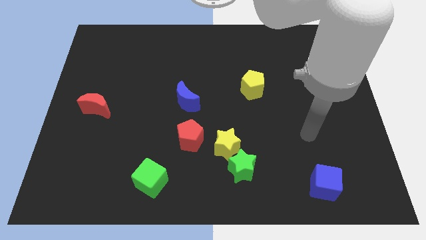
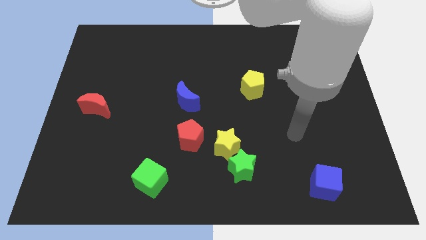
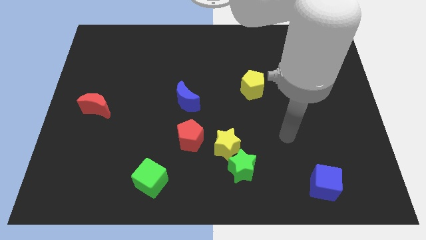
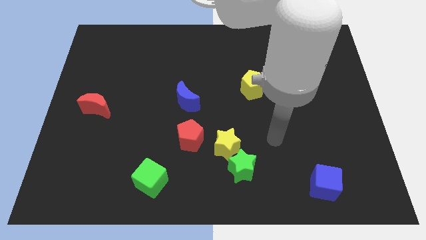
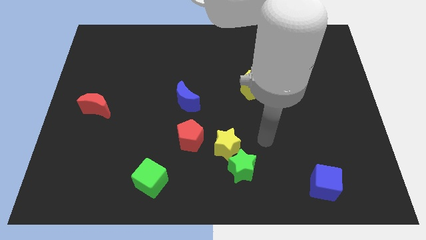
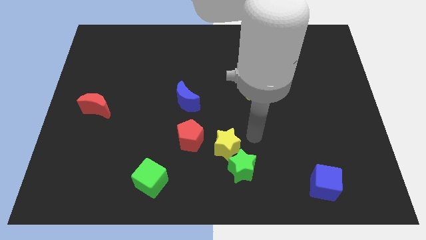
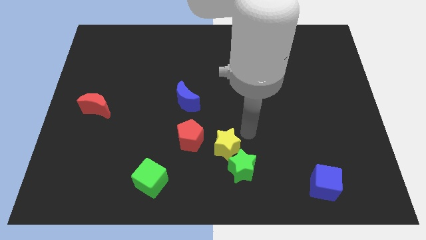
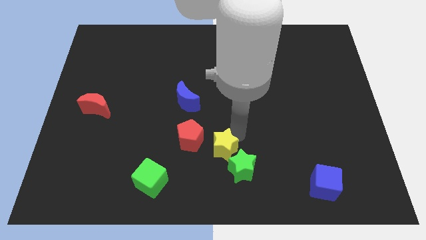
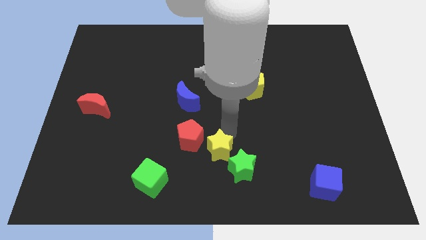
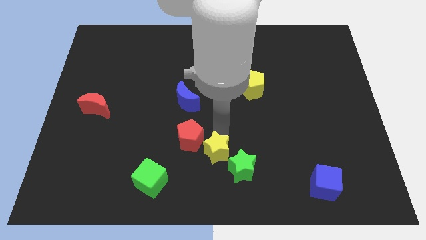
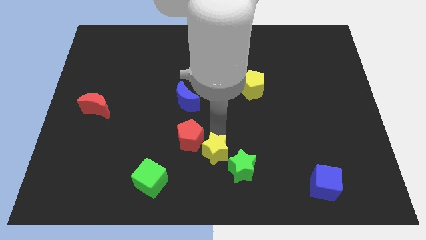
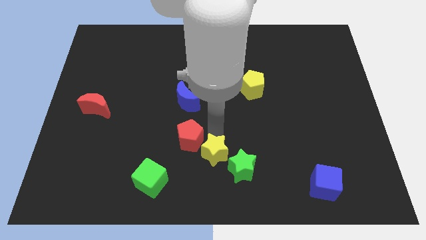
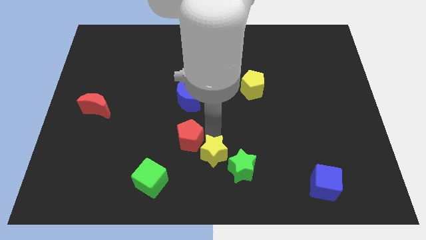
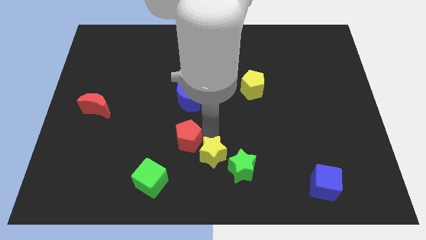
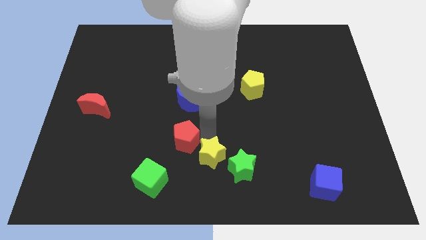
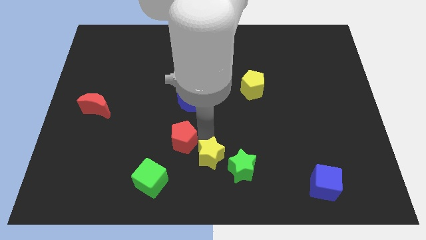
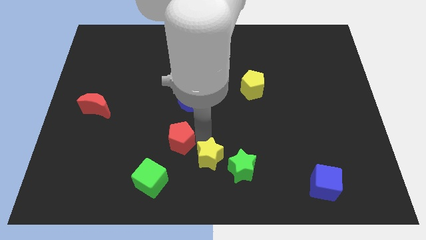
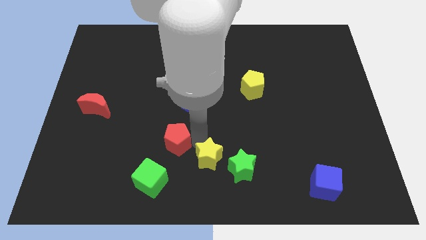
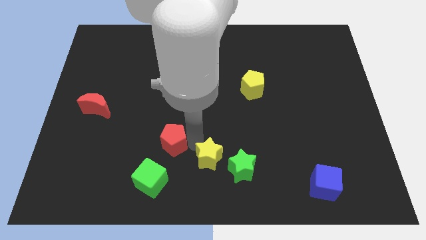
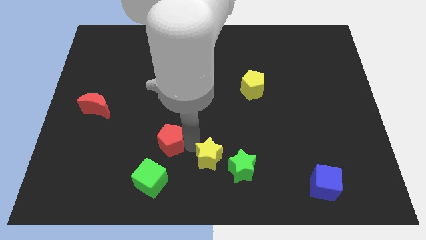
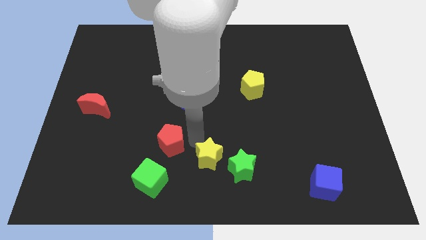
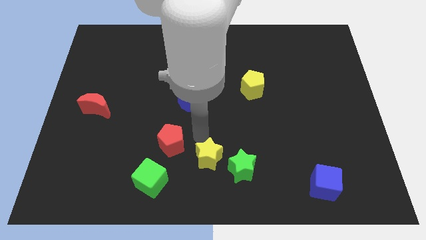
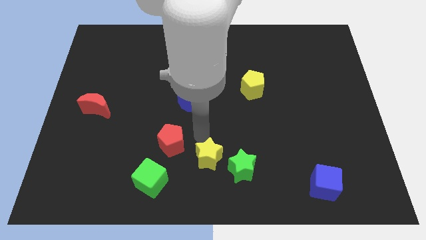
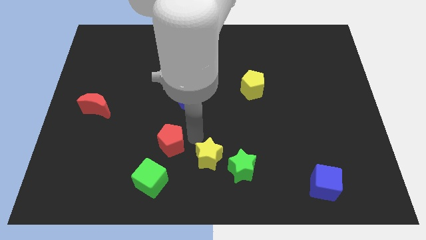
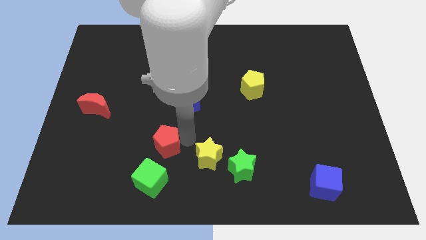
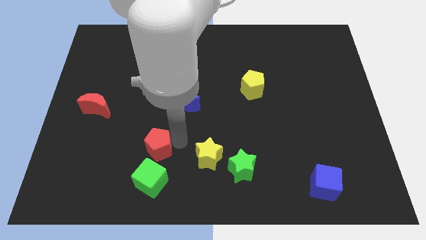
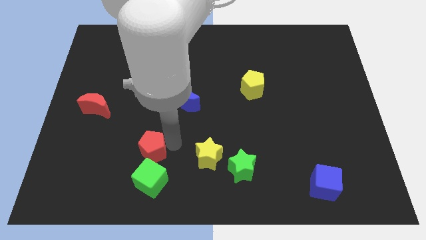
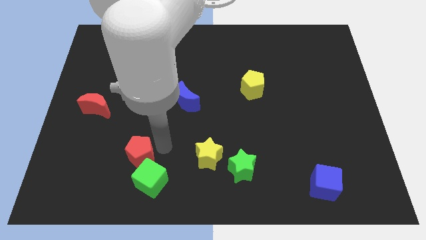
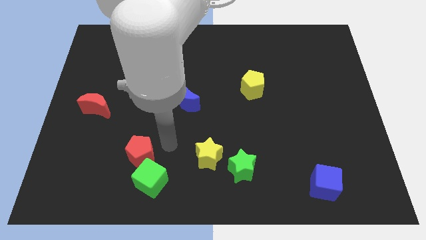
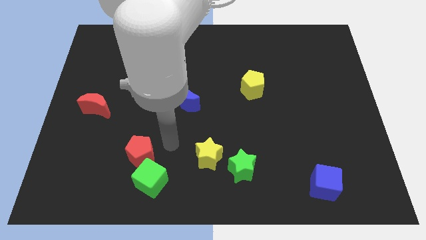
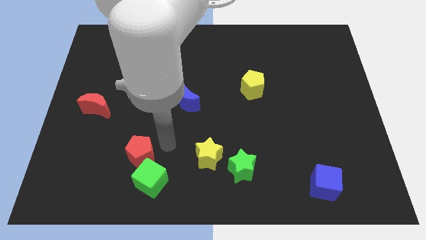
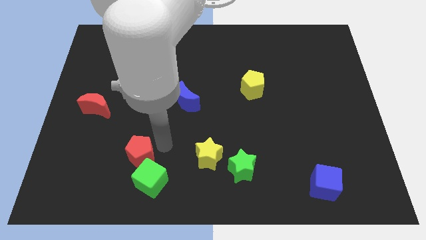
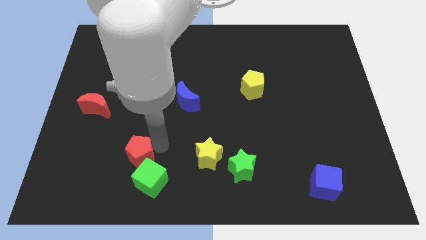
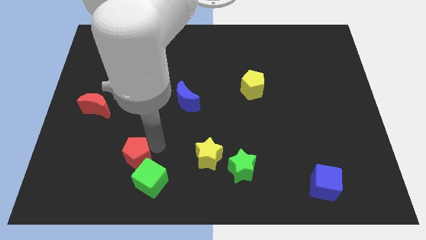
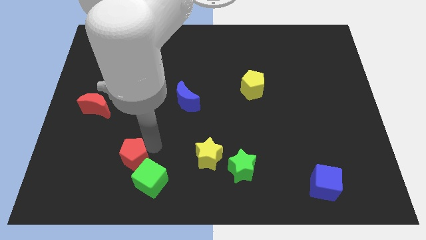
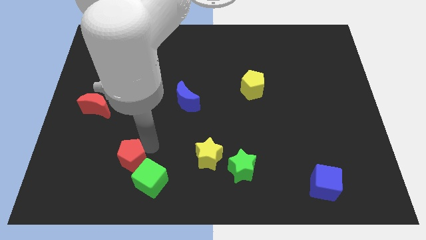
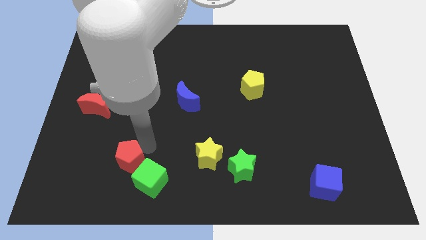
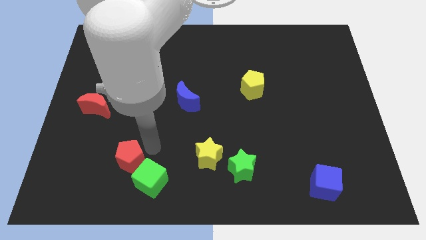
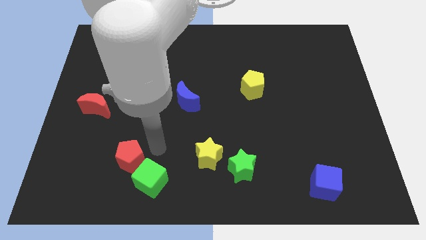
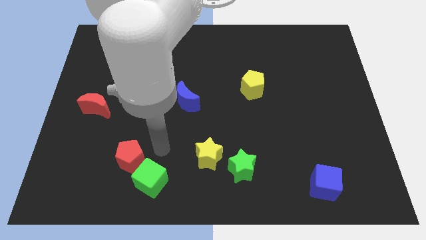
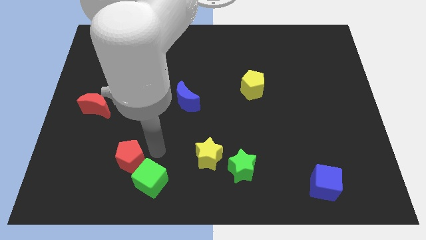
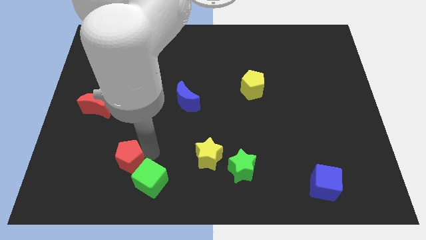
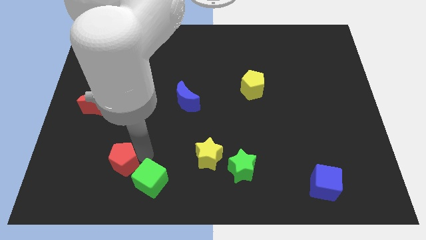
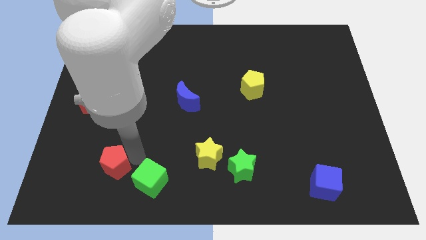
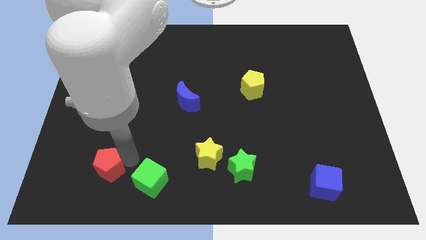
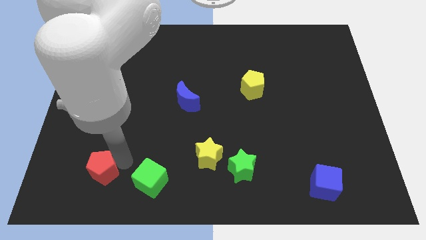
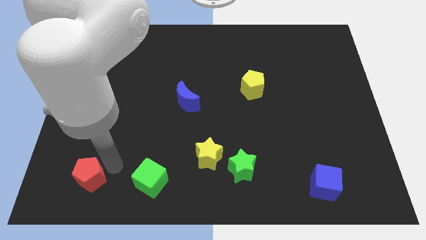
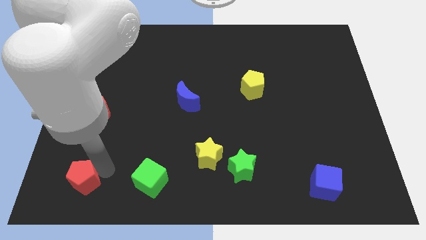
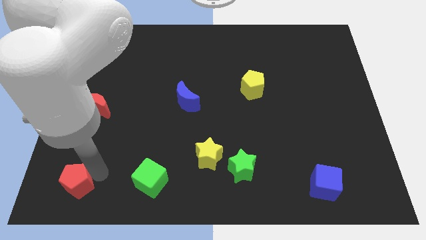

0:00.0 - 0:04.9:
push the red pentagon to the lower left corner

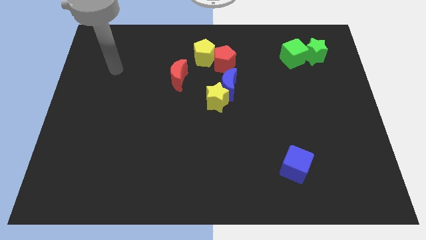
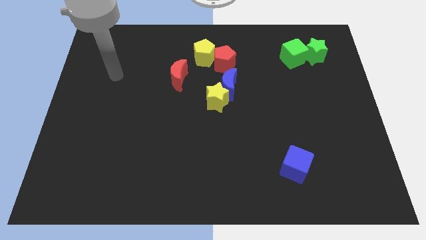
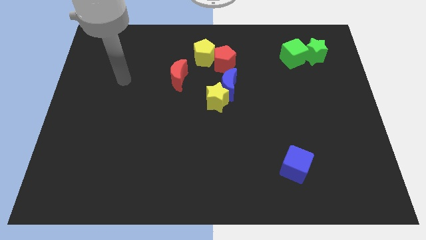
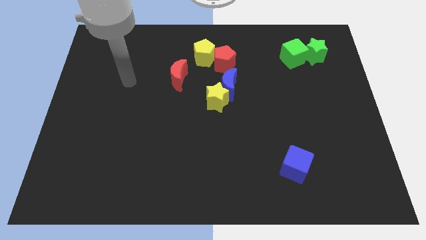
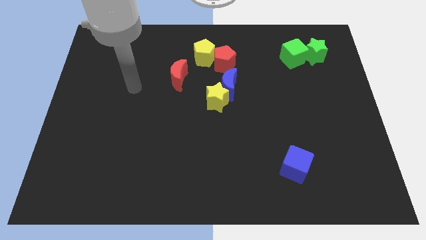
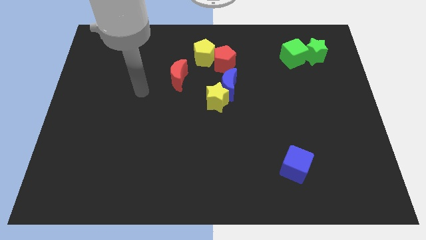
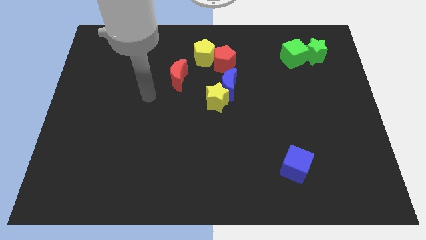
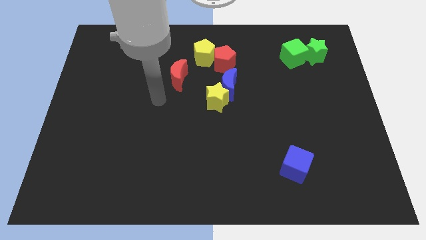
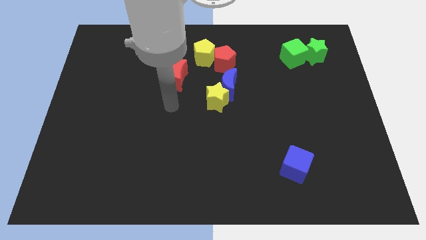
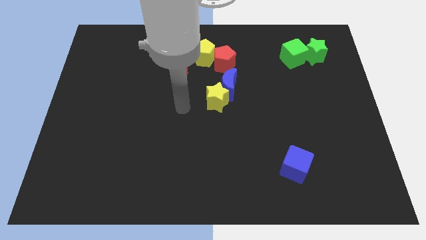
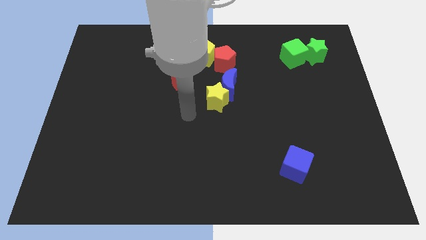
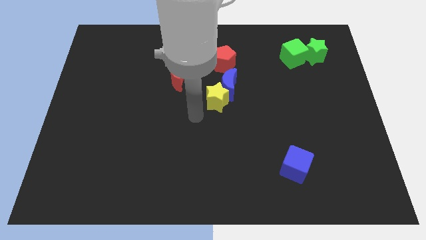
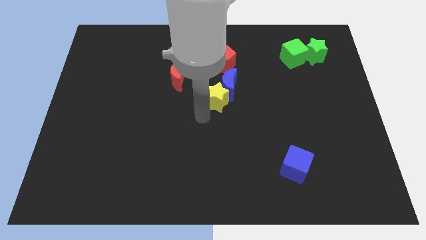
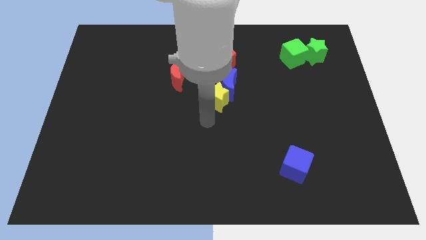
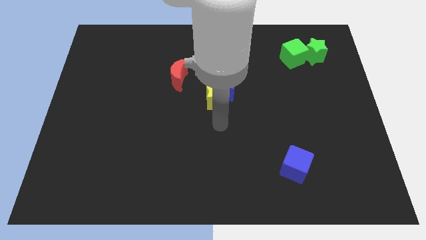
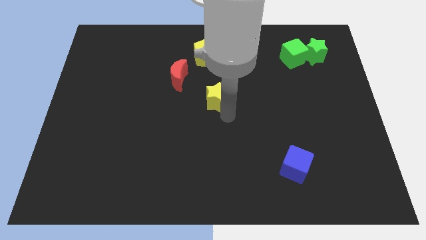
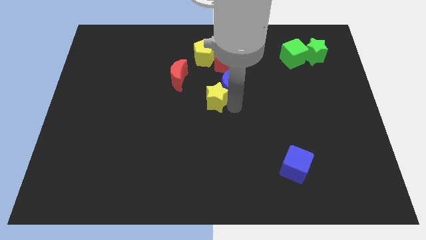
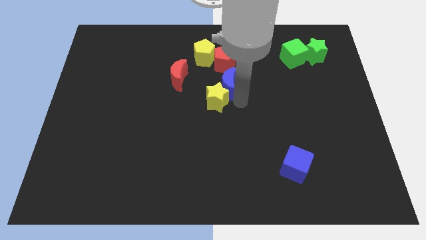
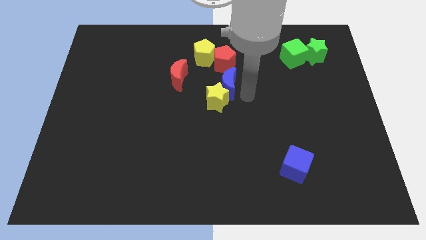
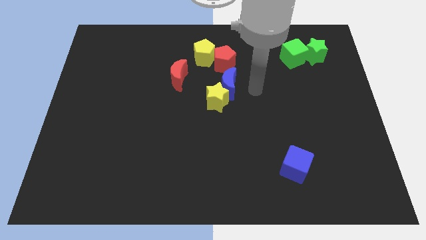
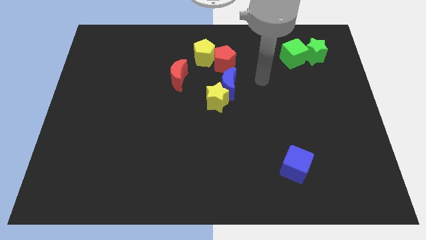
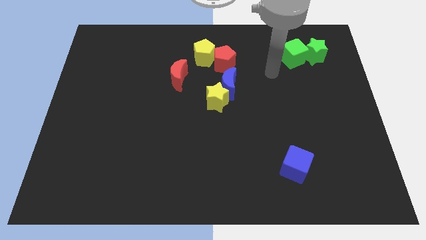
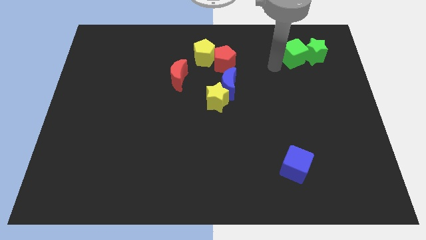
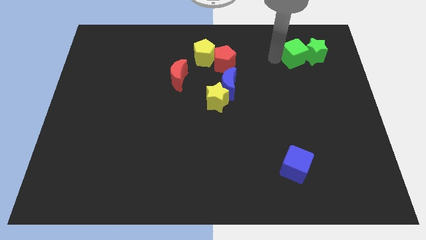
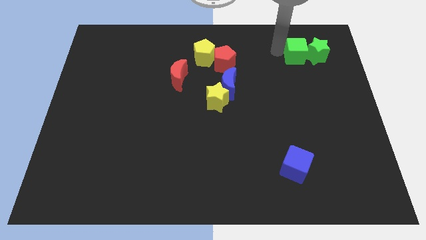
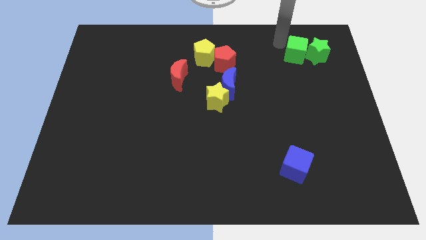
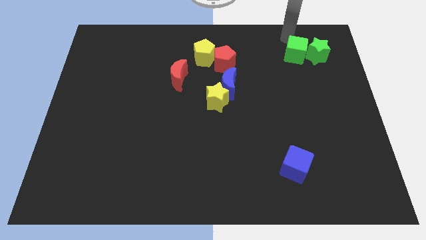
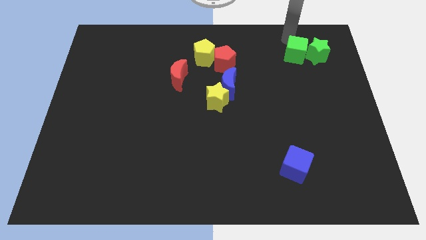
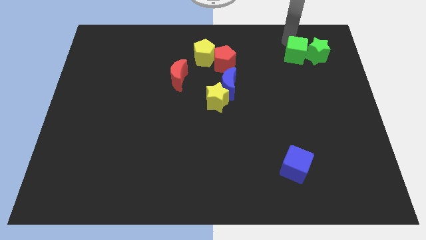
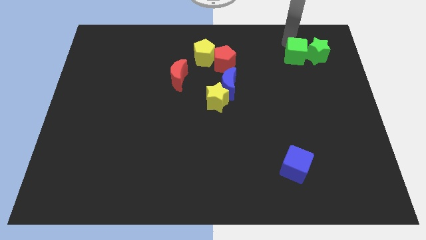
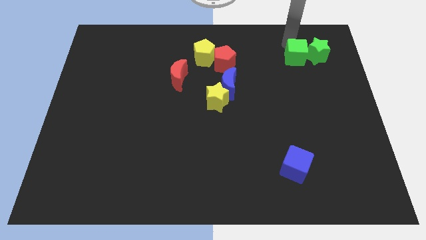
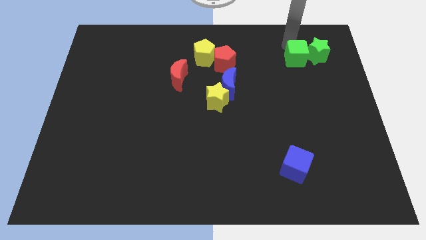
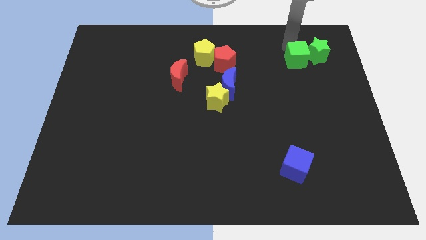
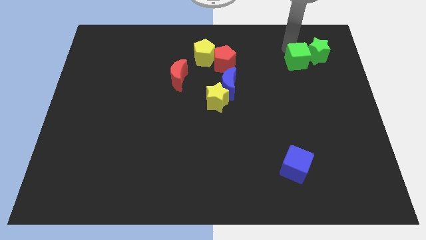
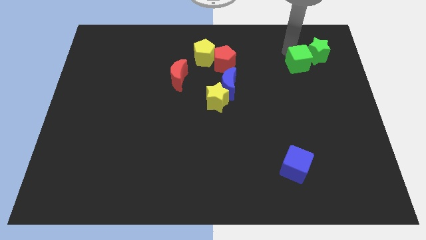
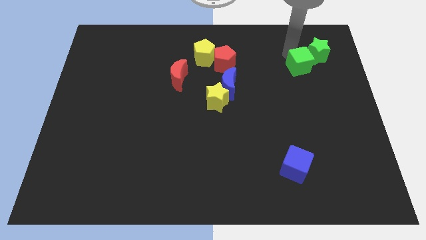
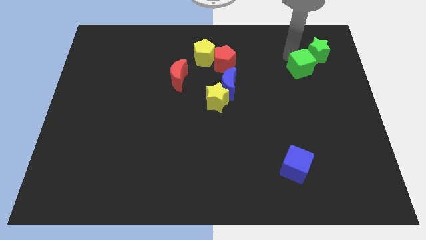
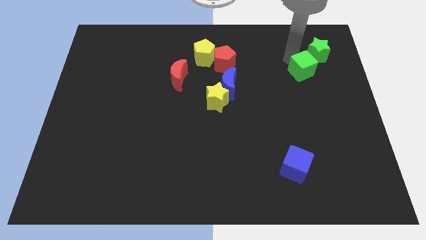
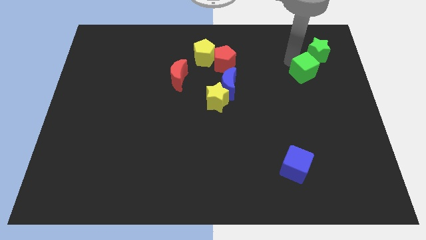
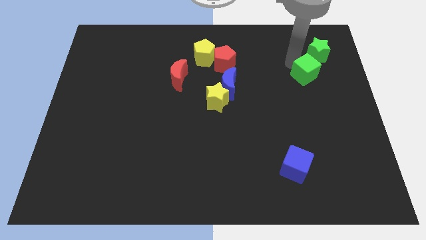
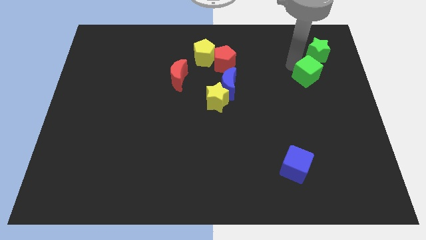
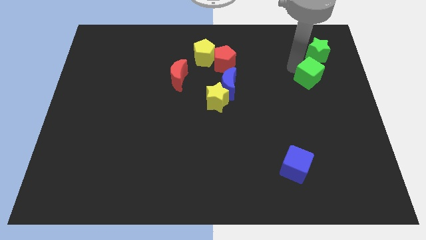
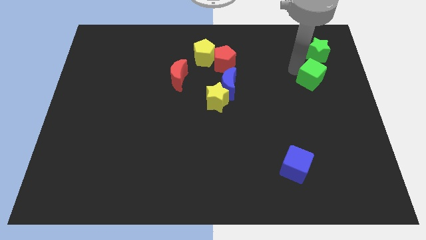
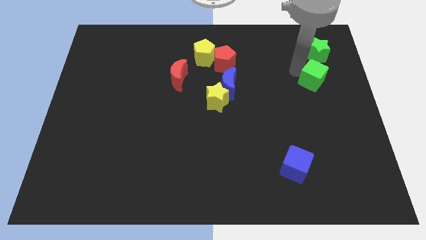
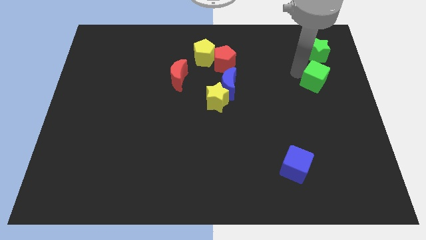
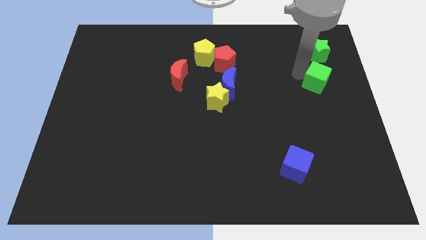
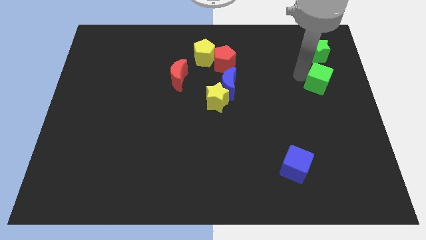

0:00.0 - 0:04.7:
slide the green cube to the center right
